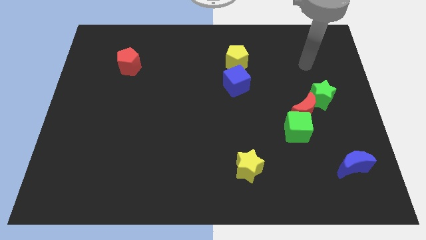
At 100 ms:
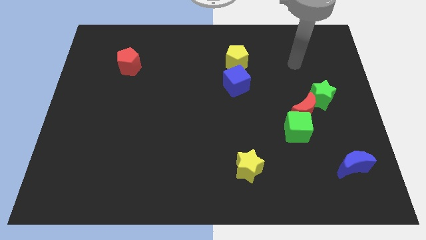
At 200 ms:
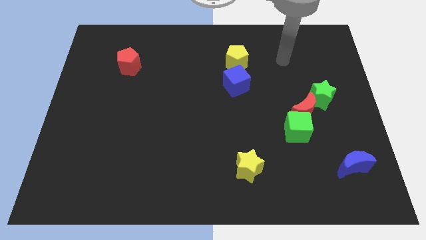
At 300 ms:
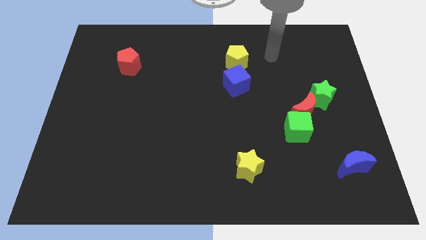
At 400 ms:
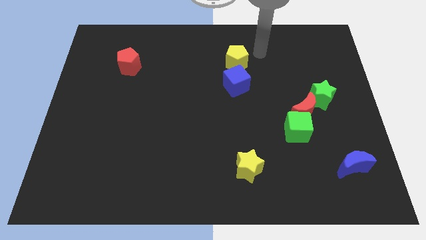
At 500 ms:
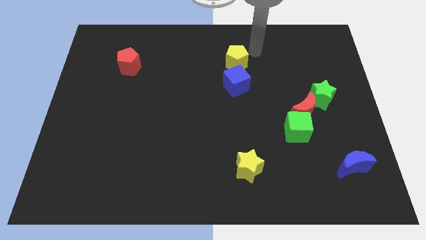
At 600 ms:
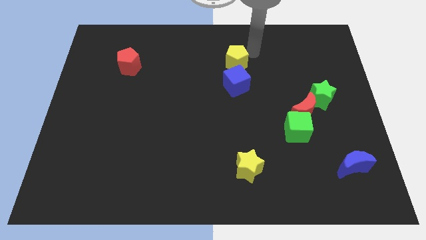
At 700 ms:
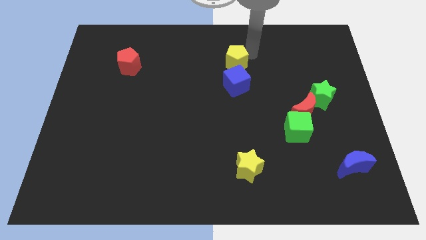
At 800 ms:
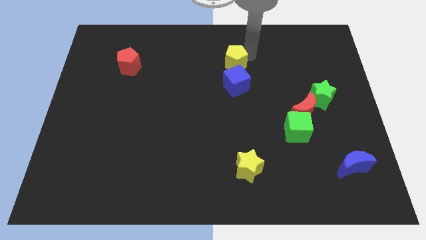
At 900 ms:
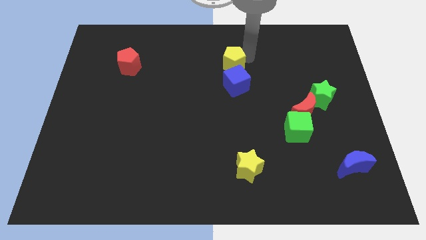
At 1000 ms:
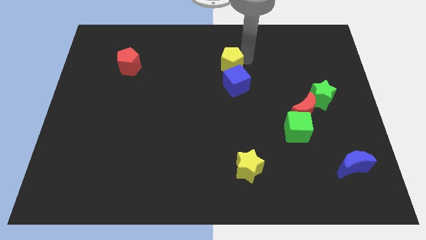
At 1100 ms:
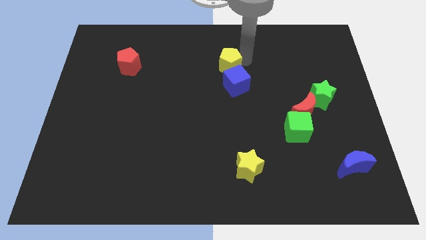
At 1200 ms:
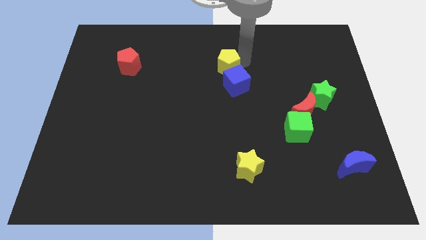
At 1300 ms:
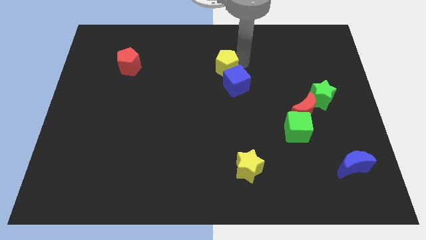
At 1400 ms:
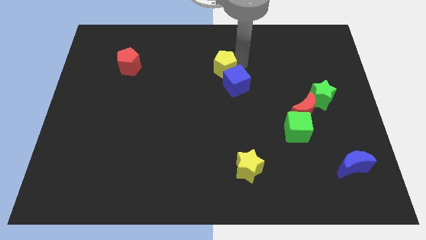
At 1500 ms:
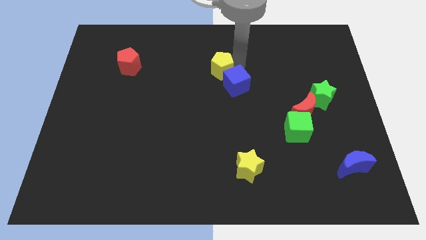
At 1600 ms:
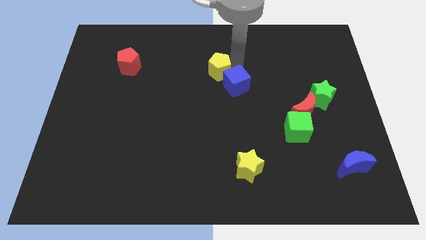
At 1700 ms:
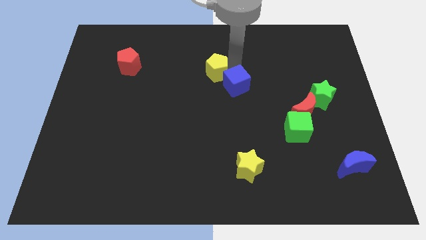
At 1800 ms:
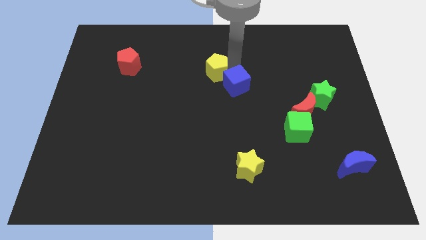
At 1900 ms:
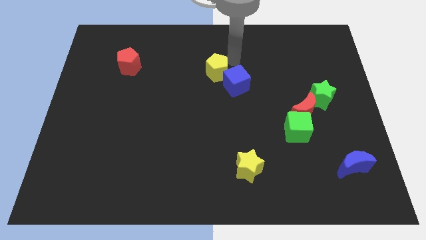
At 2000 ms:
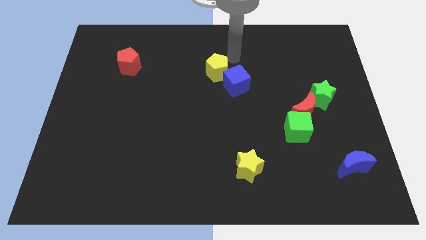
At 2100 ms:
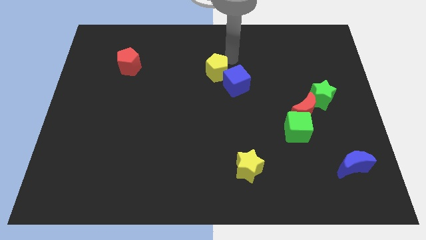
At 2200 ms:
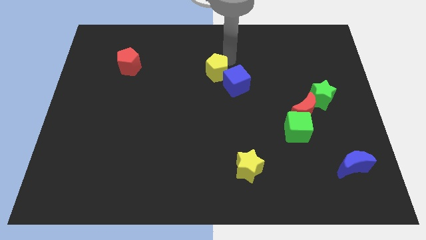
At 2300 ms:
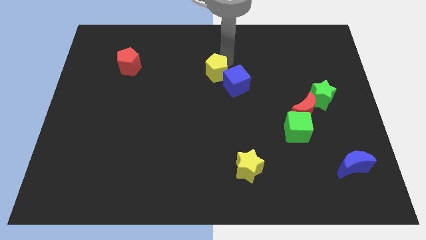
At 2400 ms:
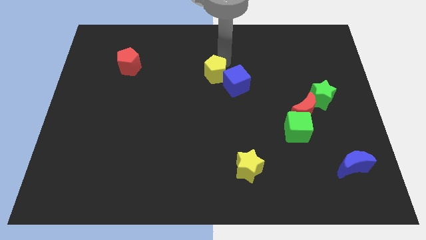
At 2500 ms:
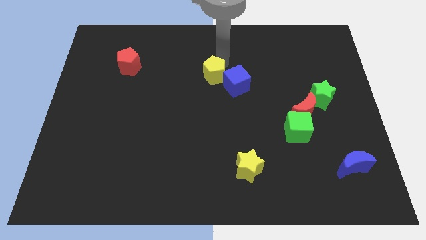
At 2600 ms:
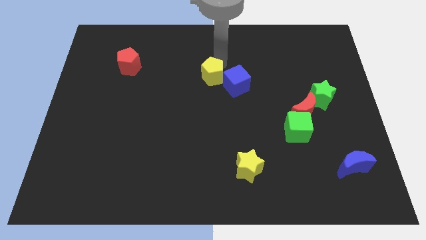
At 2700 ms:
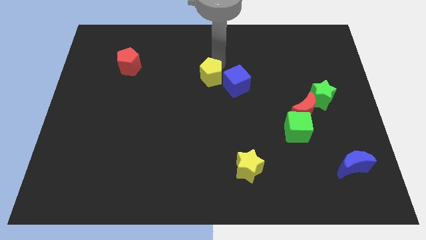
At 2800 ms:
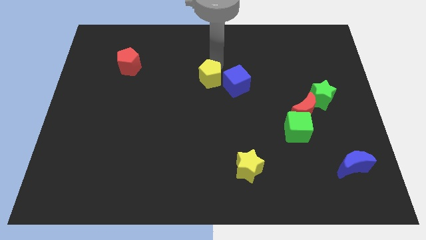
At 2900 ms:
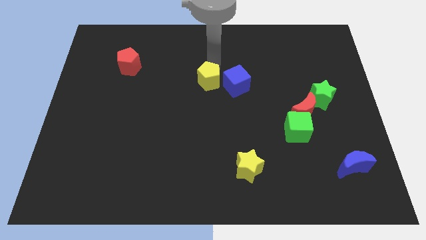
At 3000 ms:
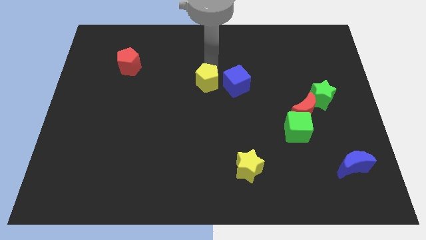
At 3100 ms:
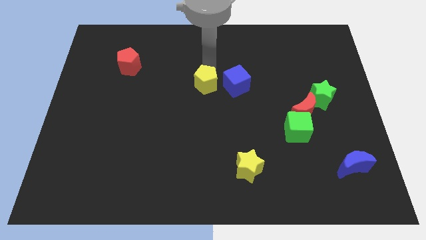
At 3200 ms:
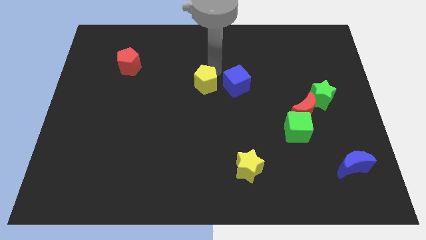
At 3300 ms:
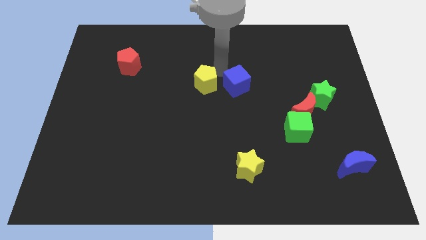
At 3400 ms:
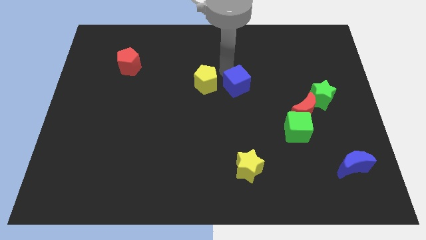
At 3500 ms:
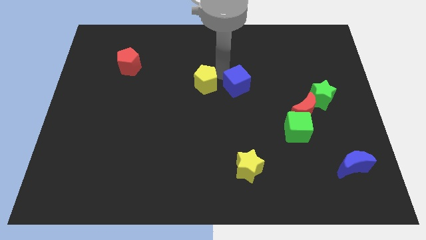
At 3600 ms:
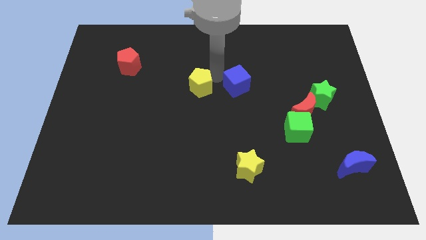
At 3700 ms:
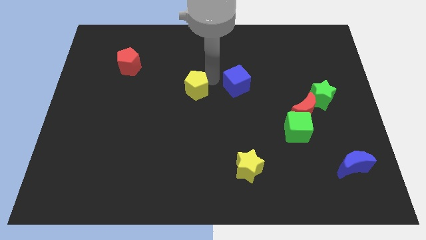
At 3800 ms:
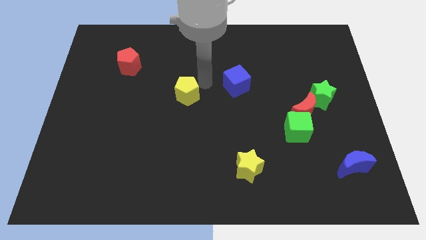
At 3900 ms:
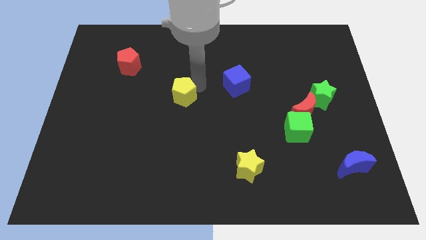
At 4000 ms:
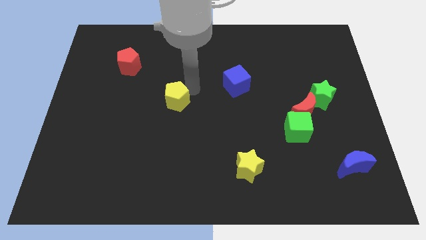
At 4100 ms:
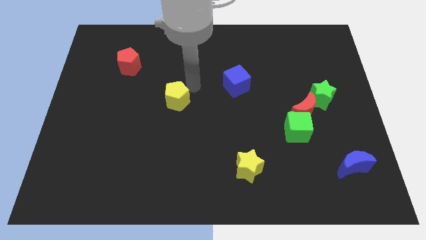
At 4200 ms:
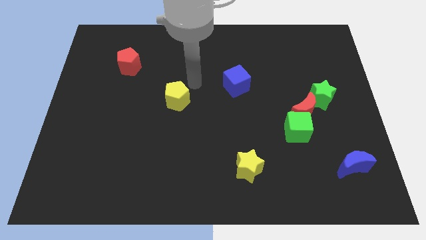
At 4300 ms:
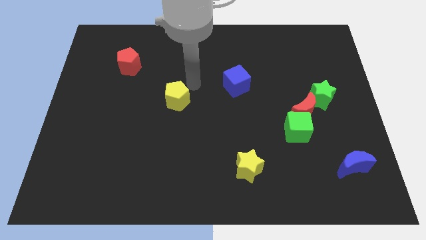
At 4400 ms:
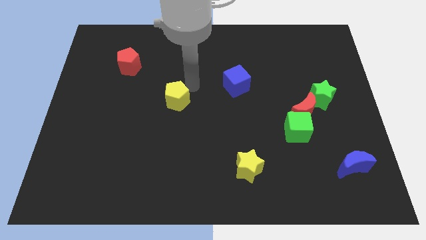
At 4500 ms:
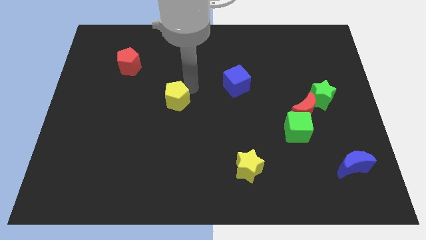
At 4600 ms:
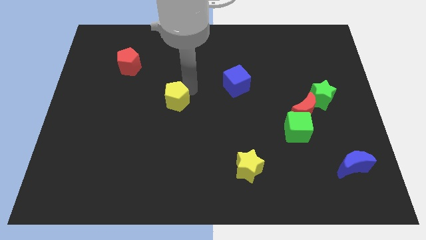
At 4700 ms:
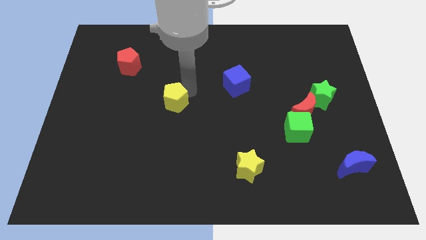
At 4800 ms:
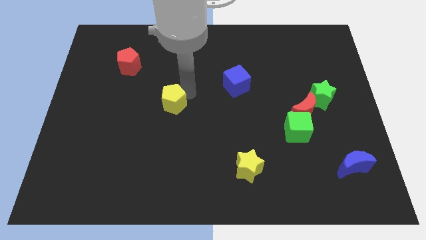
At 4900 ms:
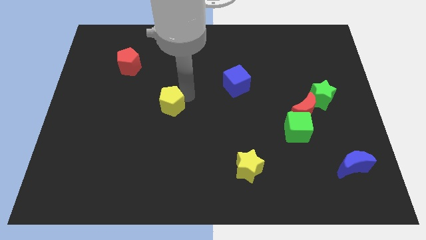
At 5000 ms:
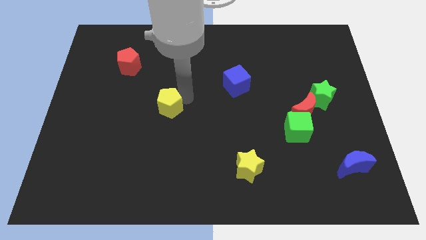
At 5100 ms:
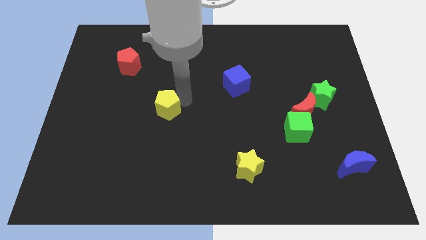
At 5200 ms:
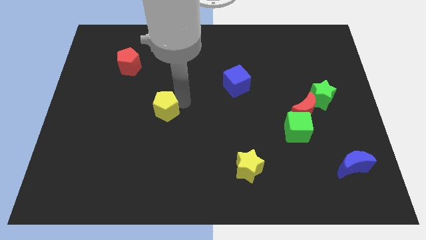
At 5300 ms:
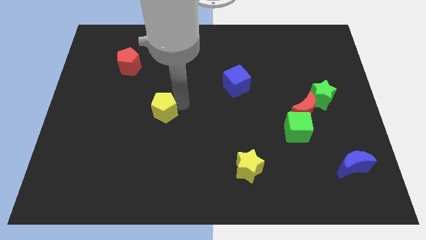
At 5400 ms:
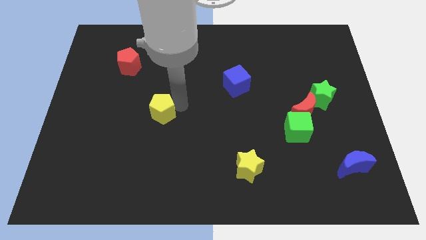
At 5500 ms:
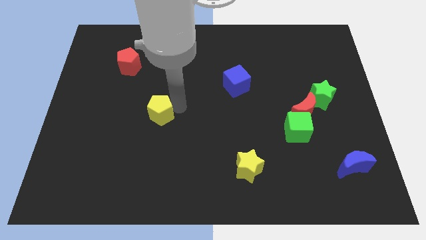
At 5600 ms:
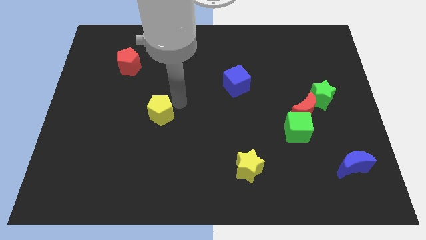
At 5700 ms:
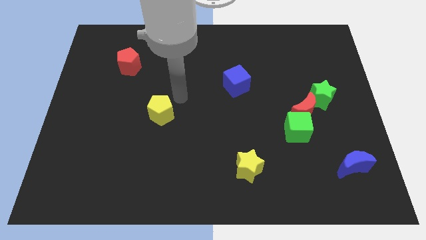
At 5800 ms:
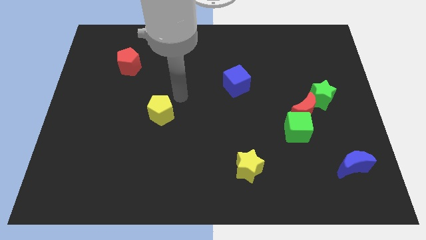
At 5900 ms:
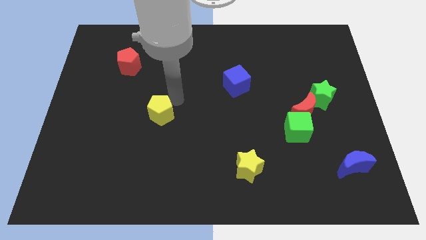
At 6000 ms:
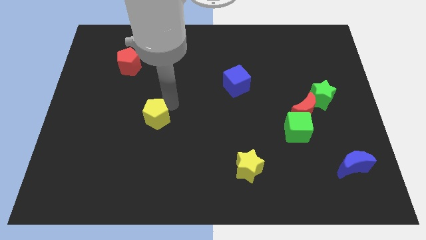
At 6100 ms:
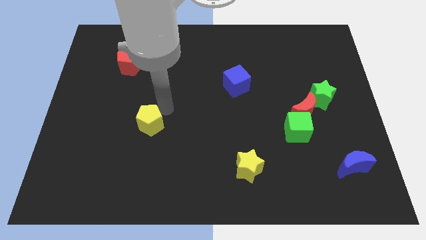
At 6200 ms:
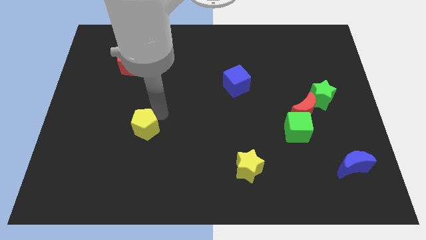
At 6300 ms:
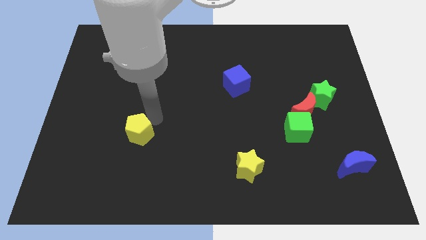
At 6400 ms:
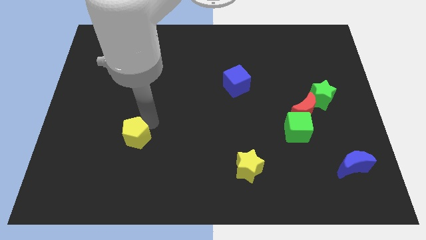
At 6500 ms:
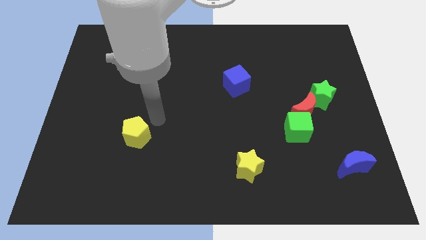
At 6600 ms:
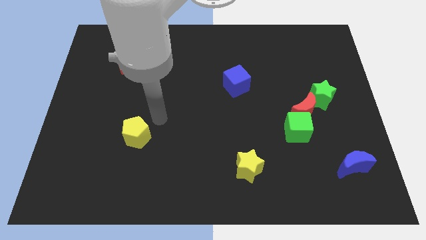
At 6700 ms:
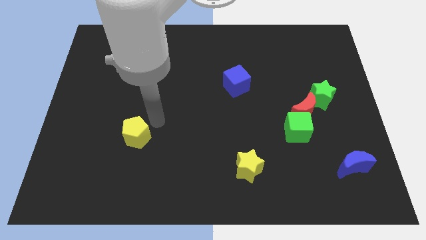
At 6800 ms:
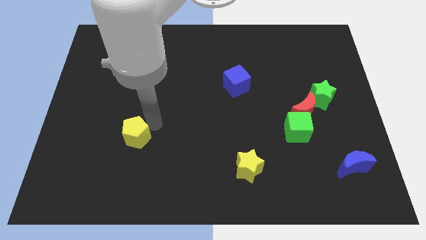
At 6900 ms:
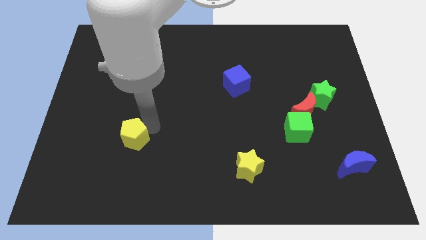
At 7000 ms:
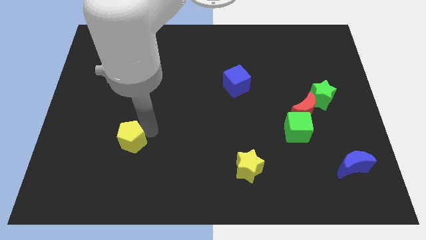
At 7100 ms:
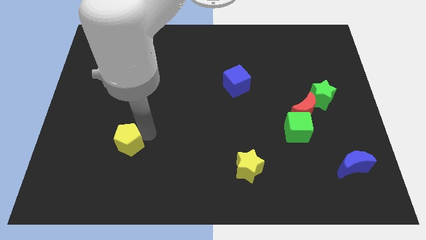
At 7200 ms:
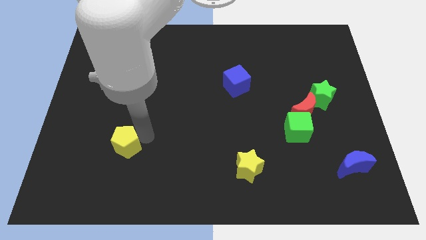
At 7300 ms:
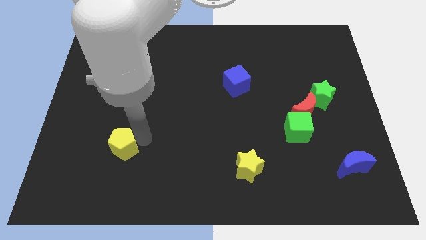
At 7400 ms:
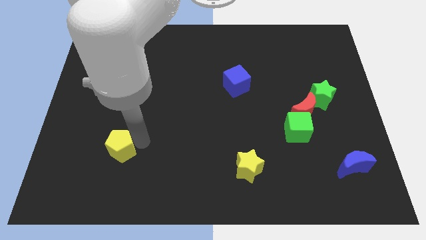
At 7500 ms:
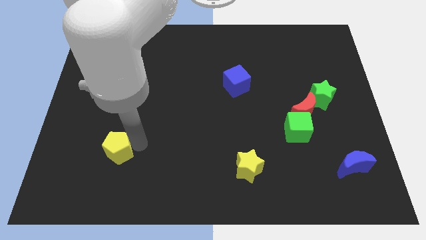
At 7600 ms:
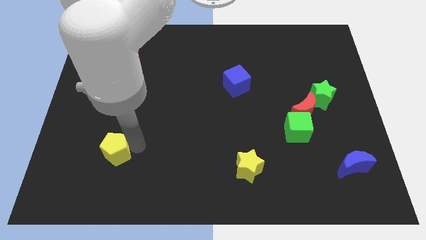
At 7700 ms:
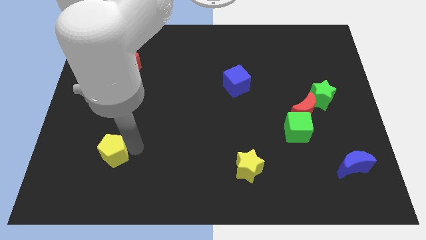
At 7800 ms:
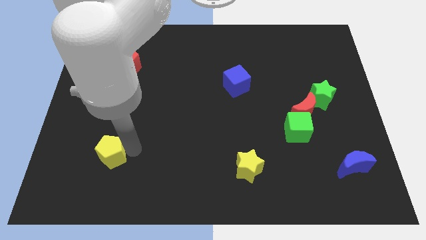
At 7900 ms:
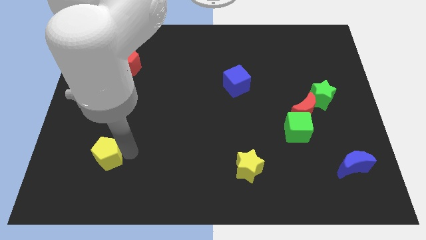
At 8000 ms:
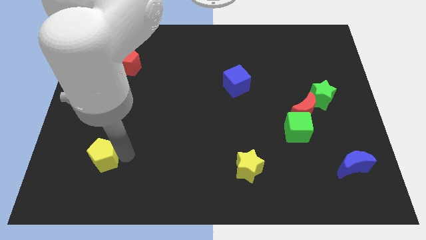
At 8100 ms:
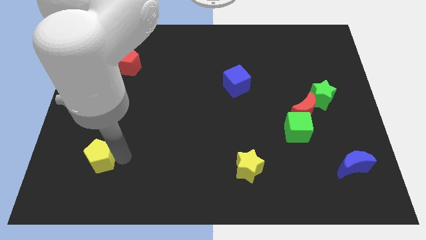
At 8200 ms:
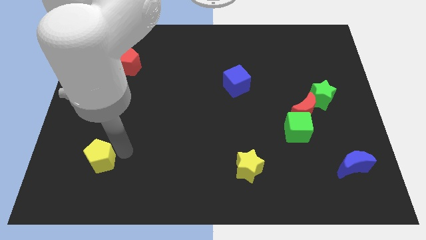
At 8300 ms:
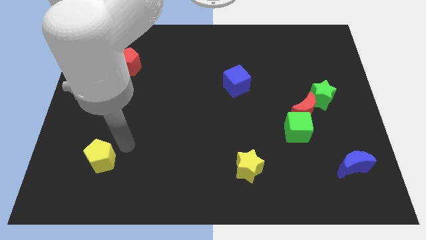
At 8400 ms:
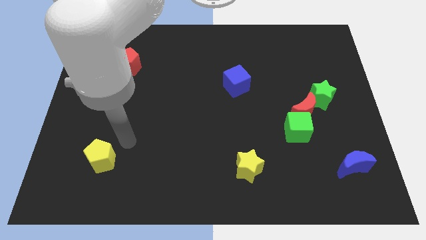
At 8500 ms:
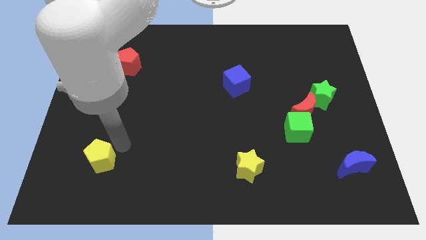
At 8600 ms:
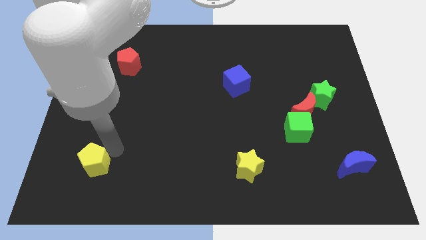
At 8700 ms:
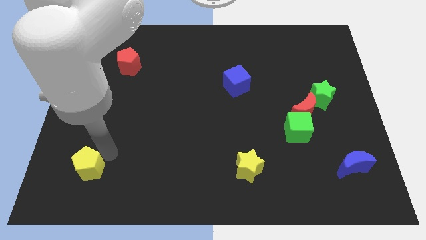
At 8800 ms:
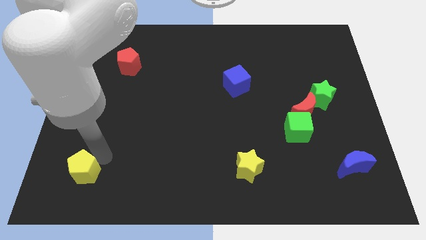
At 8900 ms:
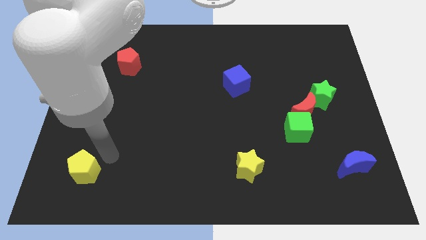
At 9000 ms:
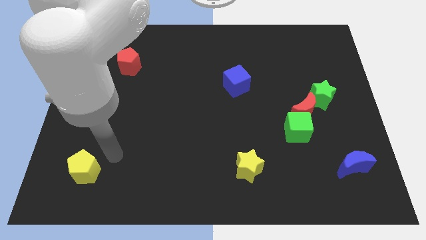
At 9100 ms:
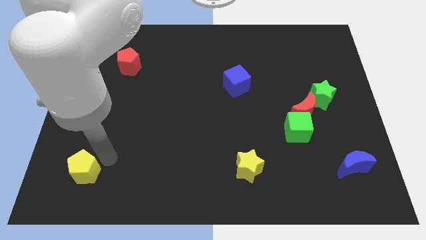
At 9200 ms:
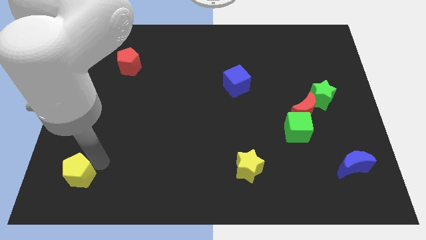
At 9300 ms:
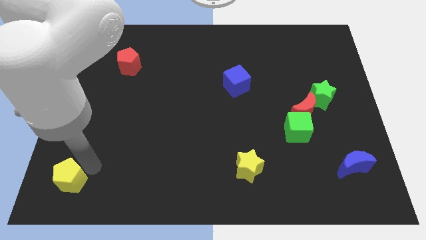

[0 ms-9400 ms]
slide the yellow pentagon to the bottom left corner
